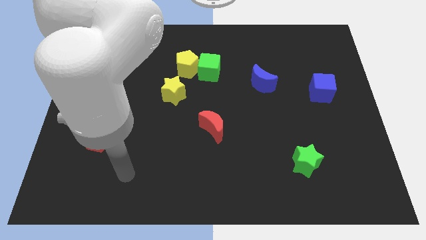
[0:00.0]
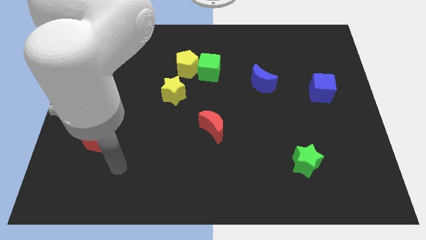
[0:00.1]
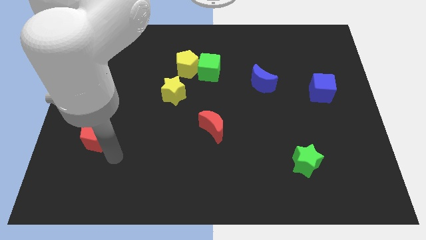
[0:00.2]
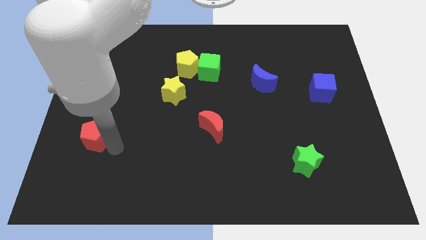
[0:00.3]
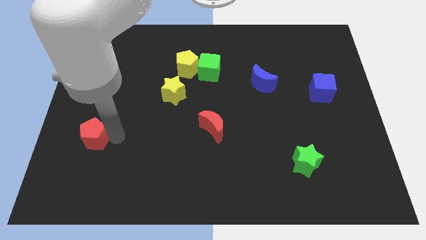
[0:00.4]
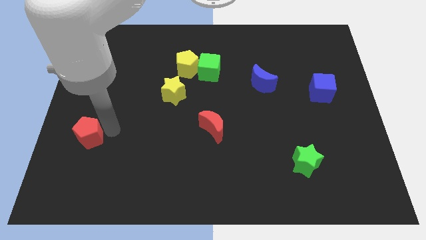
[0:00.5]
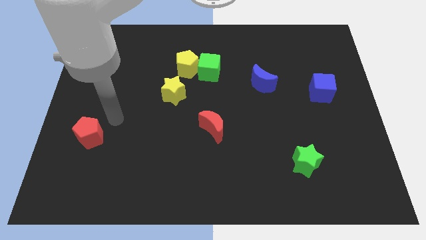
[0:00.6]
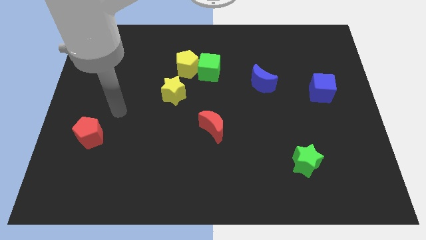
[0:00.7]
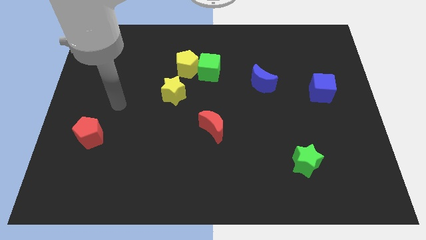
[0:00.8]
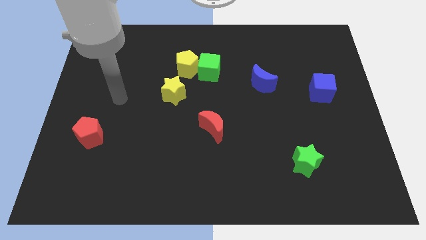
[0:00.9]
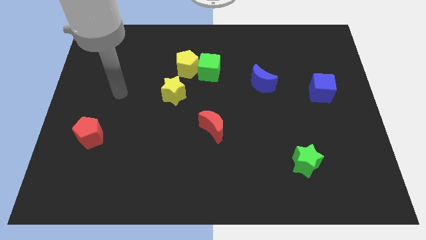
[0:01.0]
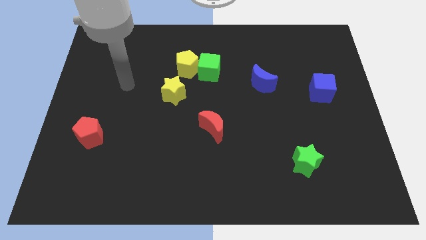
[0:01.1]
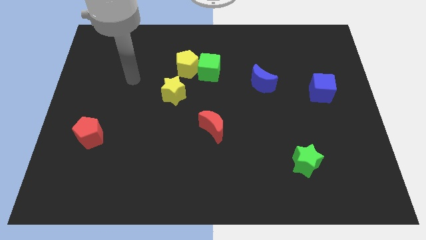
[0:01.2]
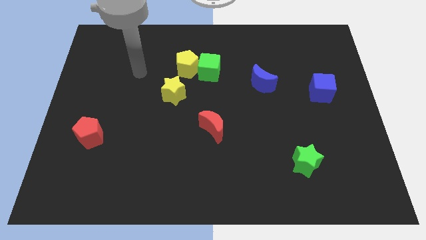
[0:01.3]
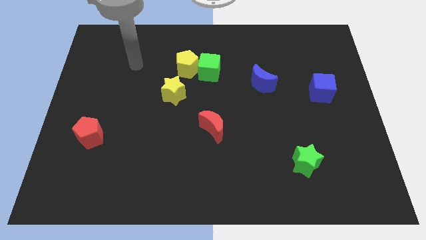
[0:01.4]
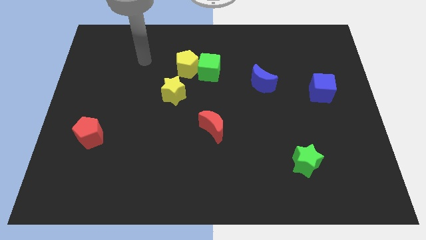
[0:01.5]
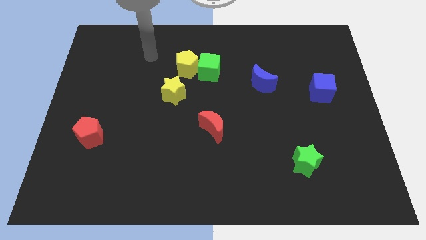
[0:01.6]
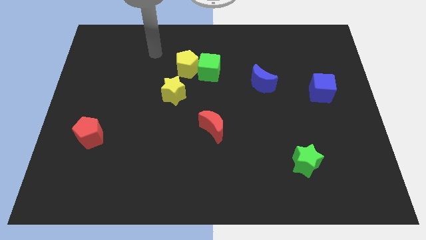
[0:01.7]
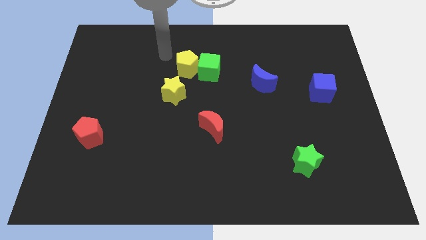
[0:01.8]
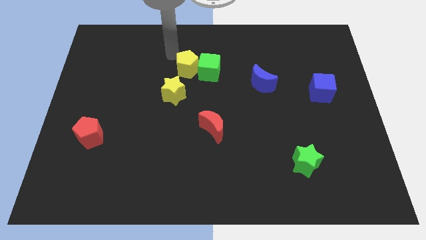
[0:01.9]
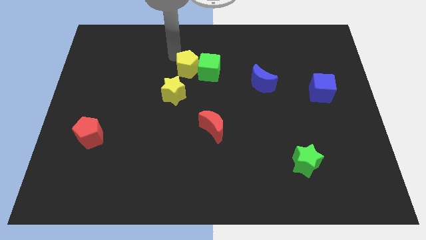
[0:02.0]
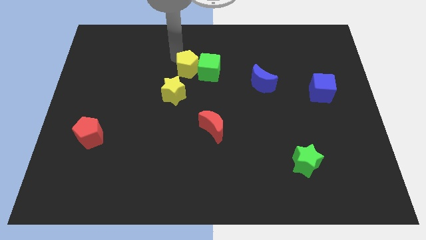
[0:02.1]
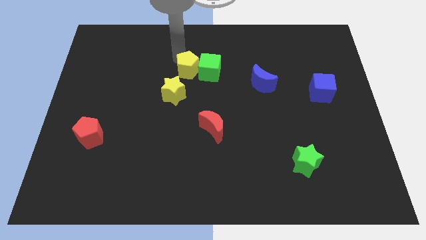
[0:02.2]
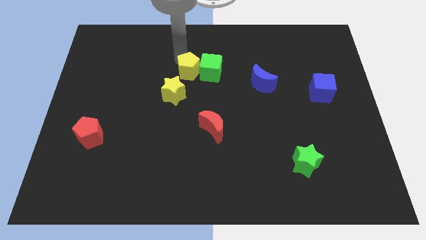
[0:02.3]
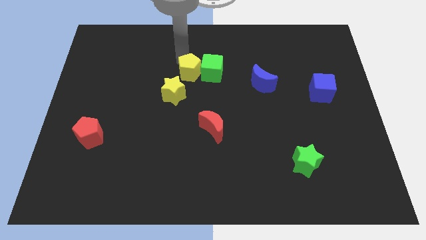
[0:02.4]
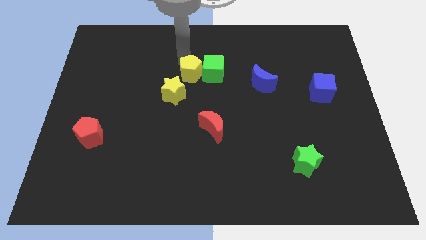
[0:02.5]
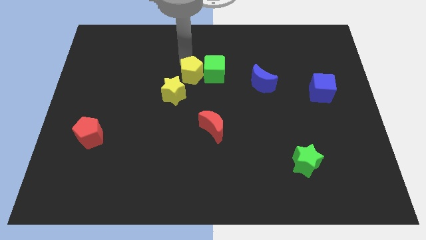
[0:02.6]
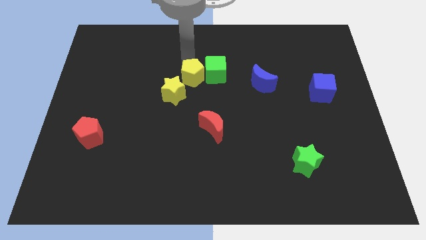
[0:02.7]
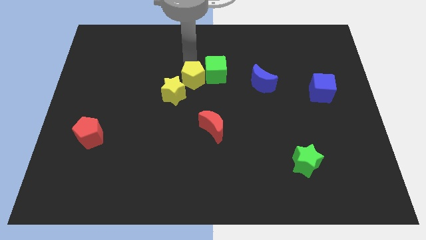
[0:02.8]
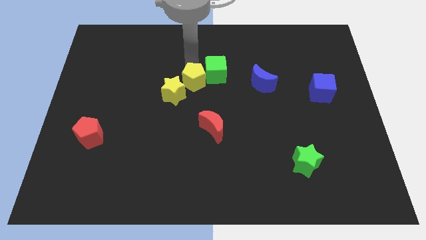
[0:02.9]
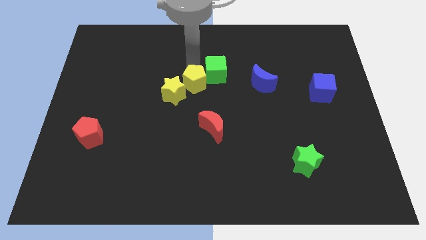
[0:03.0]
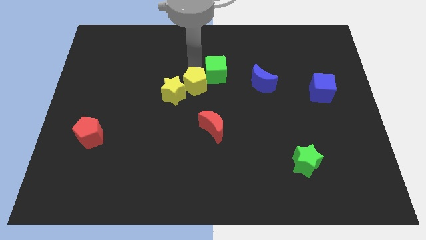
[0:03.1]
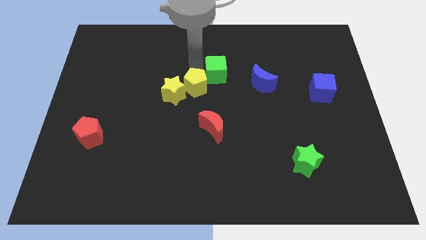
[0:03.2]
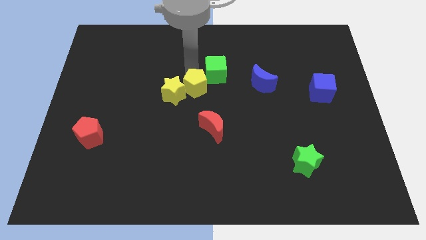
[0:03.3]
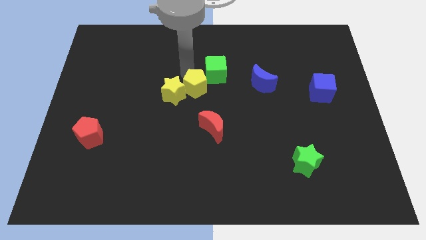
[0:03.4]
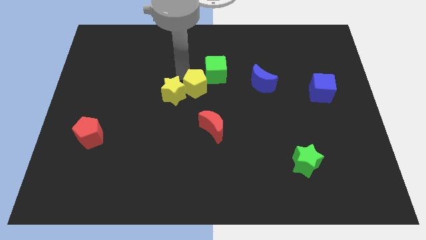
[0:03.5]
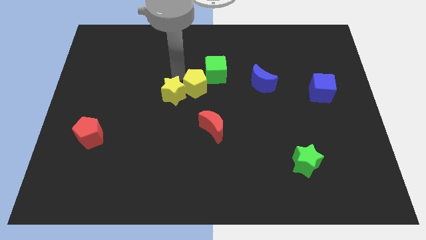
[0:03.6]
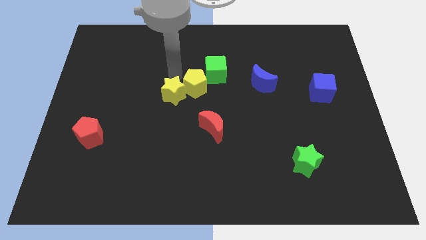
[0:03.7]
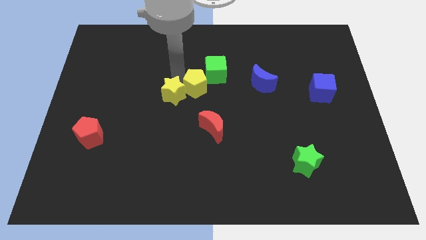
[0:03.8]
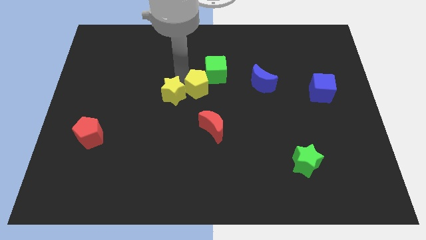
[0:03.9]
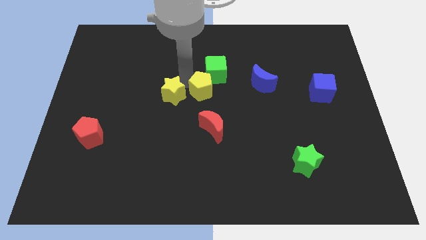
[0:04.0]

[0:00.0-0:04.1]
move the yellow pentagon downwards a little bit

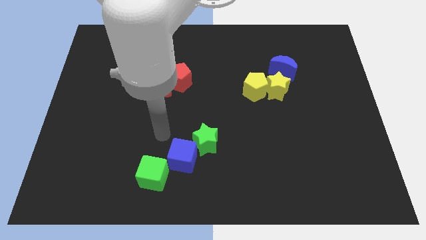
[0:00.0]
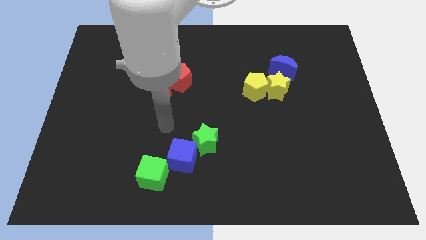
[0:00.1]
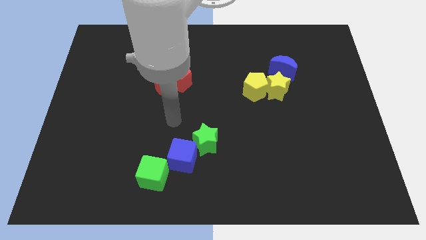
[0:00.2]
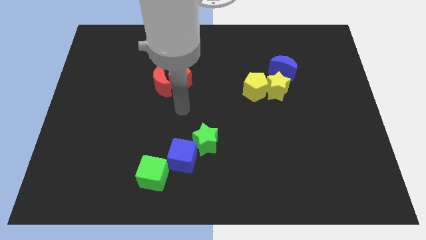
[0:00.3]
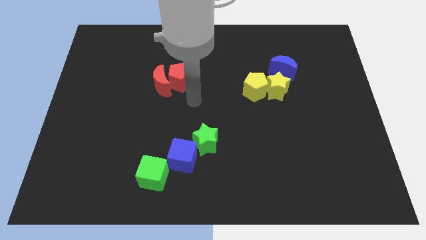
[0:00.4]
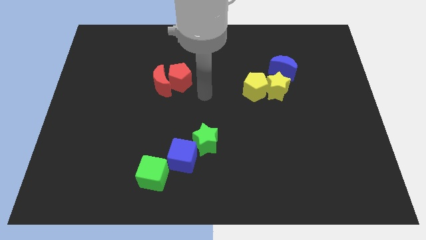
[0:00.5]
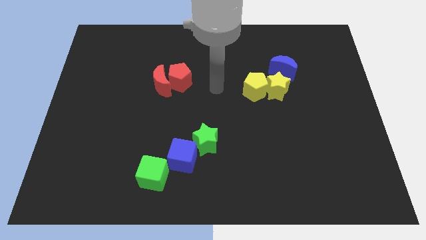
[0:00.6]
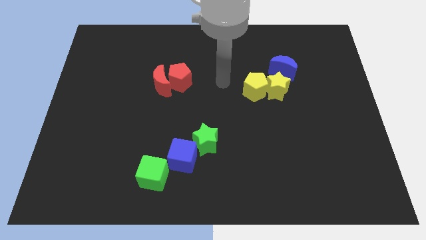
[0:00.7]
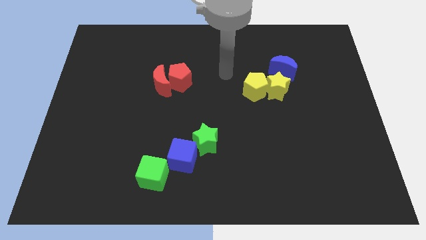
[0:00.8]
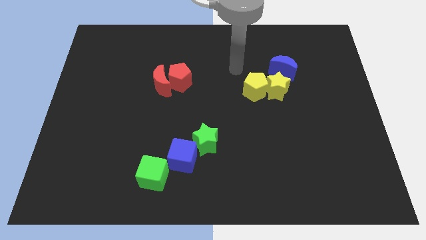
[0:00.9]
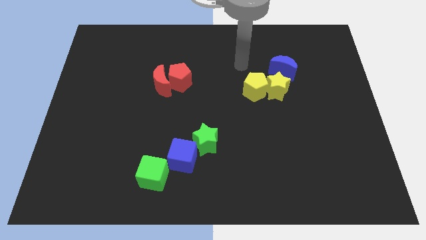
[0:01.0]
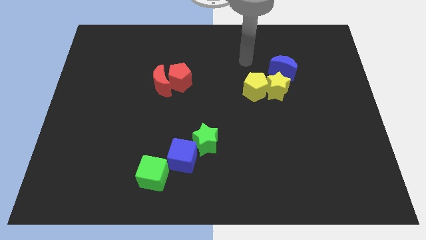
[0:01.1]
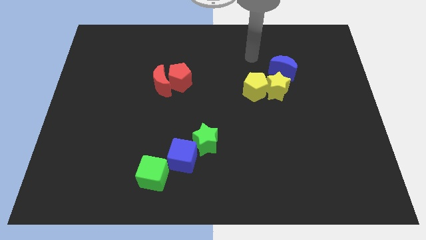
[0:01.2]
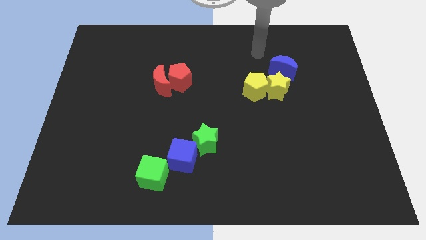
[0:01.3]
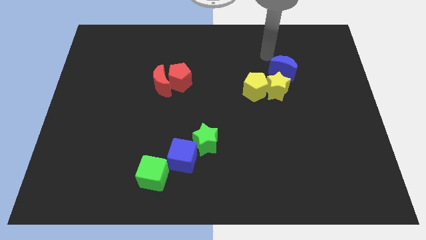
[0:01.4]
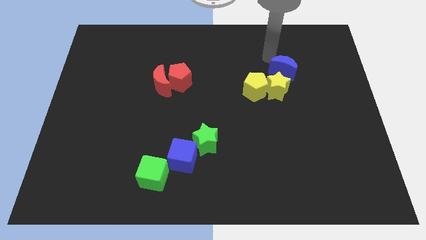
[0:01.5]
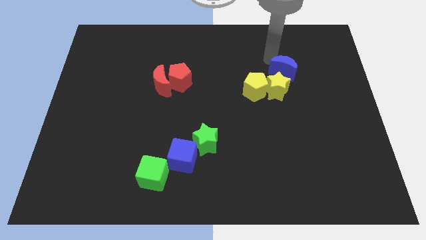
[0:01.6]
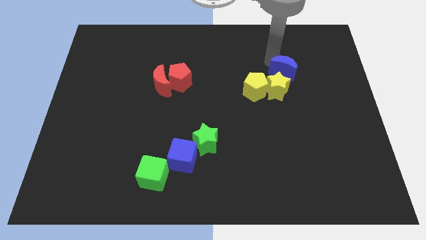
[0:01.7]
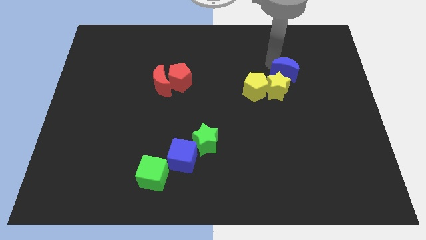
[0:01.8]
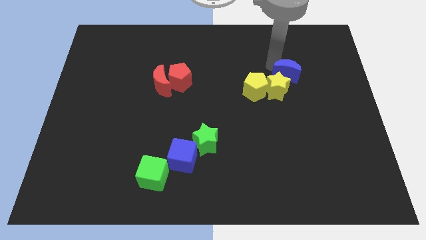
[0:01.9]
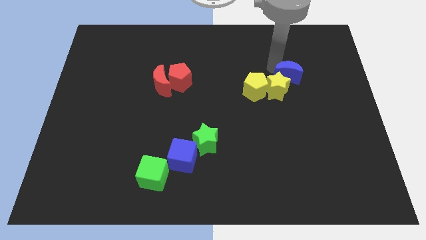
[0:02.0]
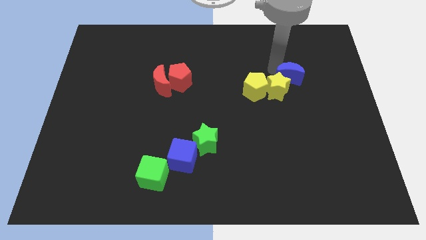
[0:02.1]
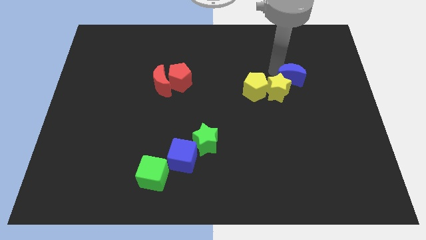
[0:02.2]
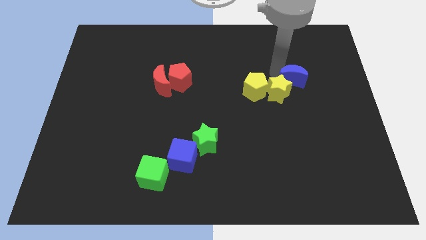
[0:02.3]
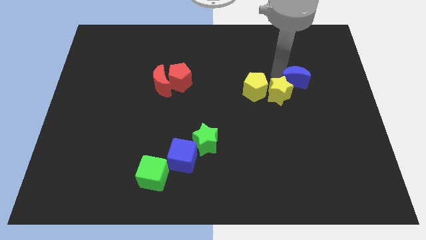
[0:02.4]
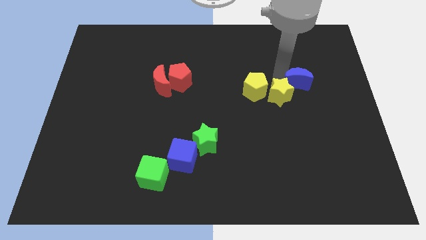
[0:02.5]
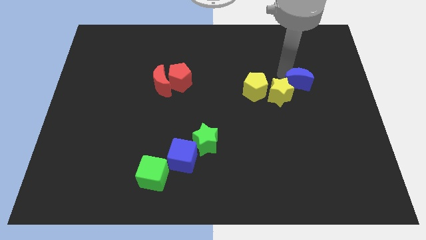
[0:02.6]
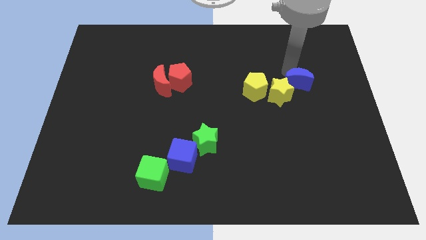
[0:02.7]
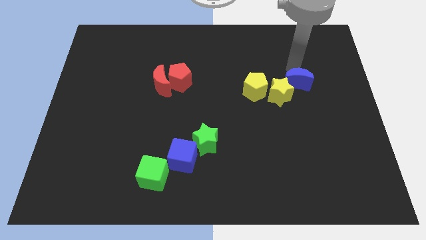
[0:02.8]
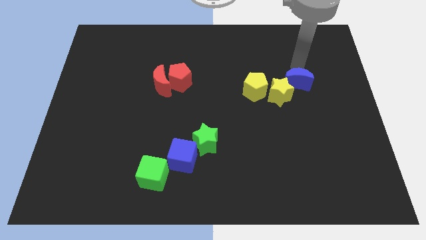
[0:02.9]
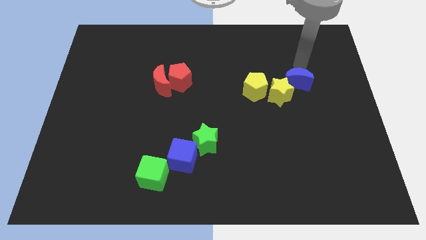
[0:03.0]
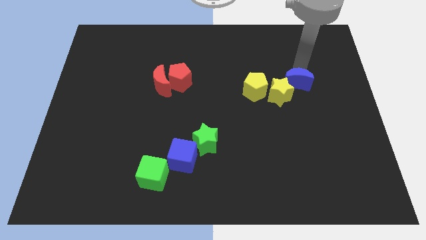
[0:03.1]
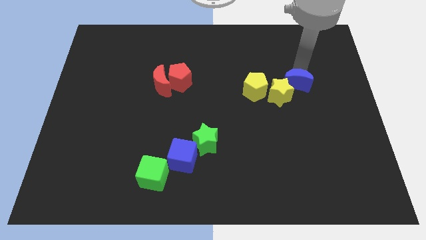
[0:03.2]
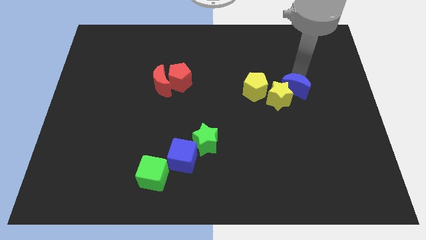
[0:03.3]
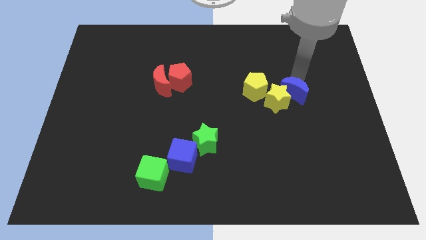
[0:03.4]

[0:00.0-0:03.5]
slide the blue moon down slightly

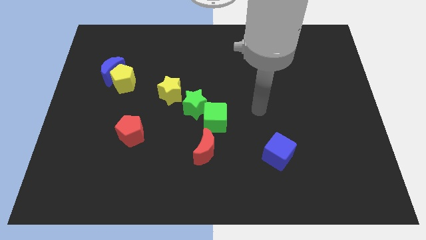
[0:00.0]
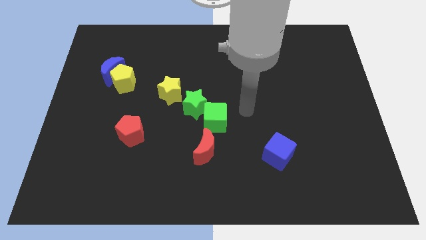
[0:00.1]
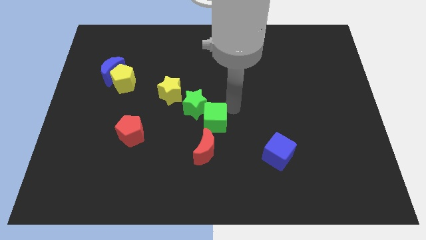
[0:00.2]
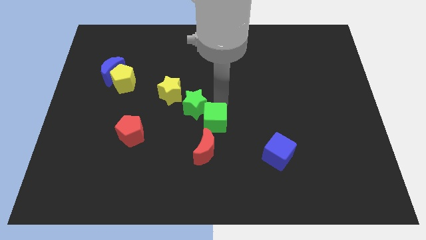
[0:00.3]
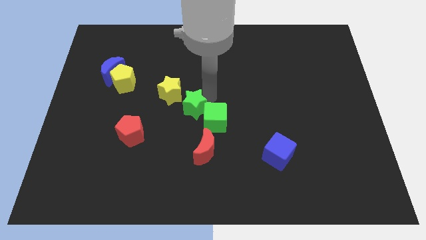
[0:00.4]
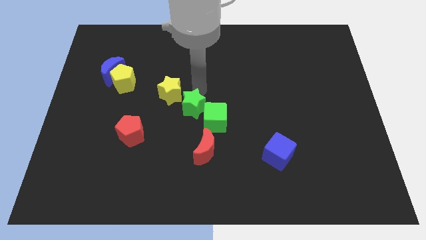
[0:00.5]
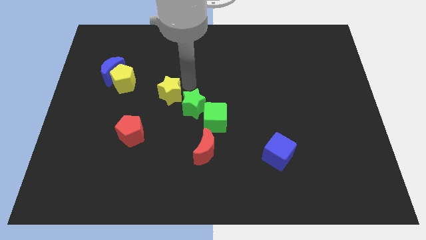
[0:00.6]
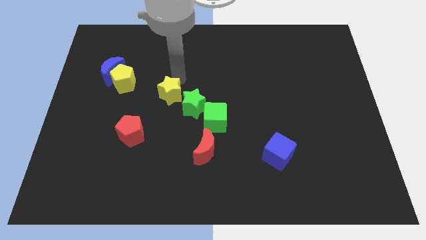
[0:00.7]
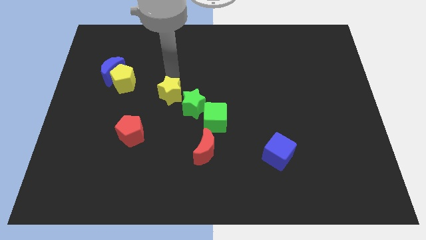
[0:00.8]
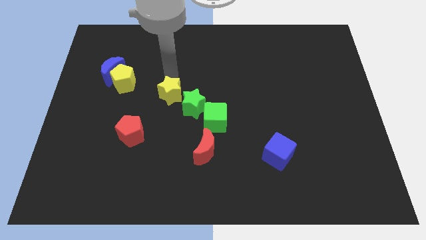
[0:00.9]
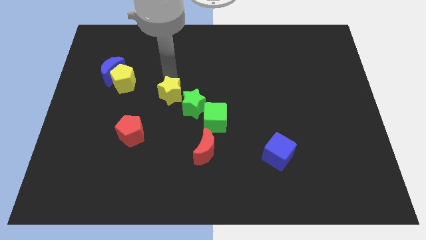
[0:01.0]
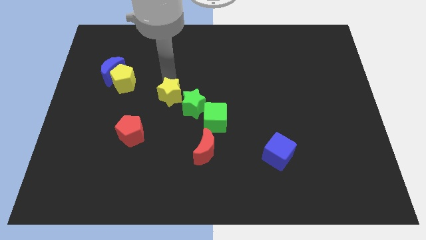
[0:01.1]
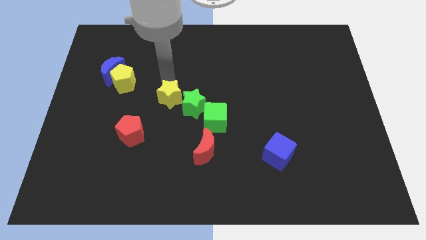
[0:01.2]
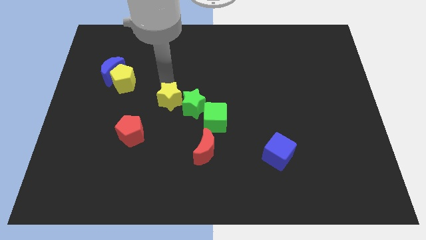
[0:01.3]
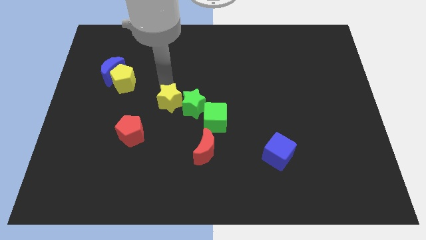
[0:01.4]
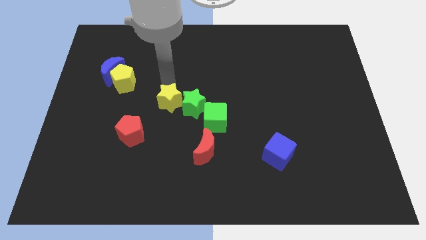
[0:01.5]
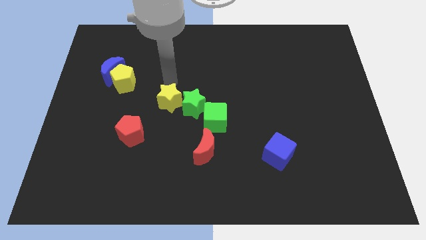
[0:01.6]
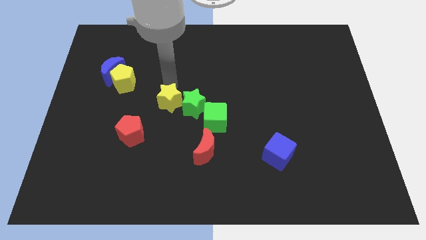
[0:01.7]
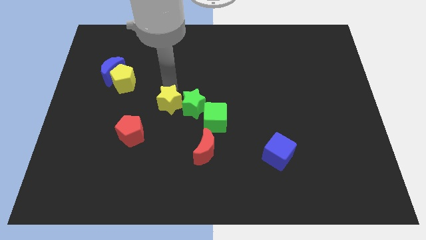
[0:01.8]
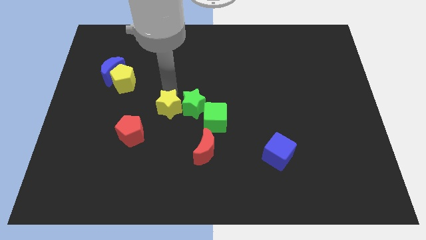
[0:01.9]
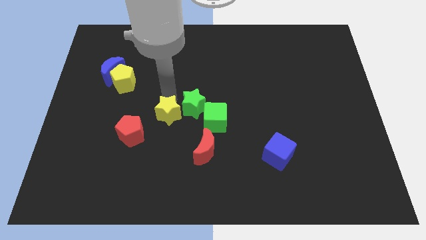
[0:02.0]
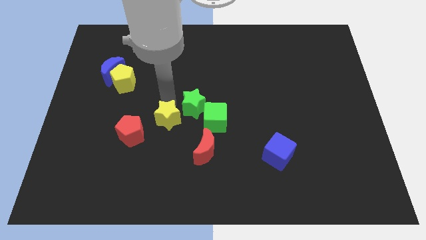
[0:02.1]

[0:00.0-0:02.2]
move the yellow star a little bit downwards
